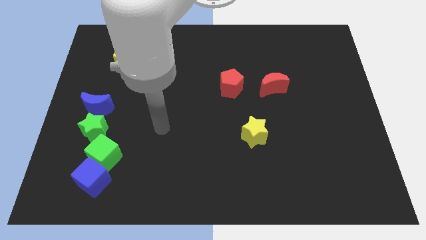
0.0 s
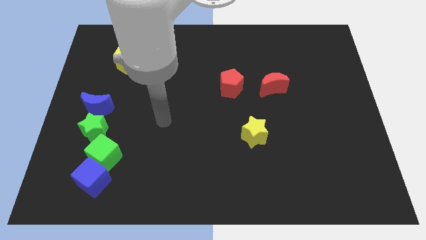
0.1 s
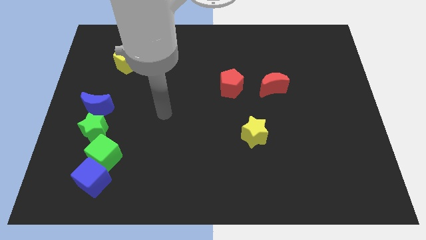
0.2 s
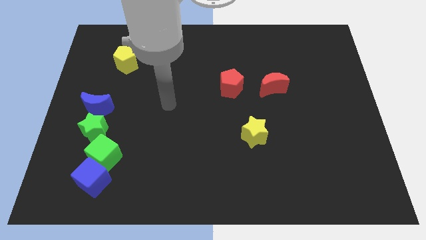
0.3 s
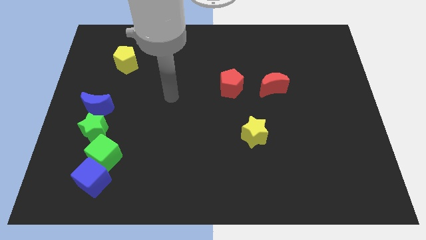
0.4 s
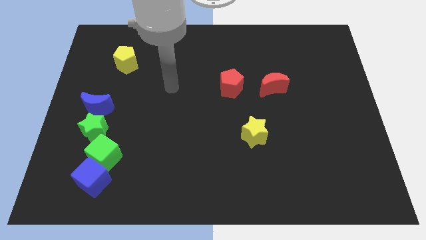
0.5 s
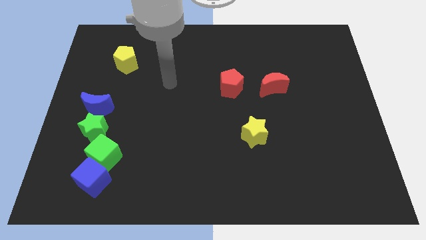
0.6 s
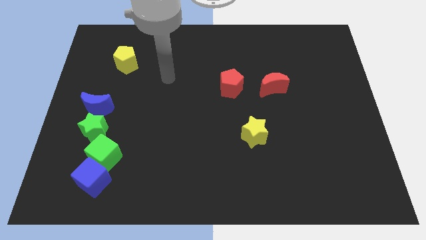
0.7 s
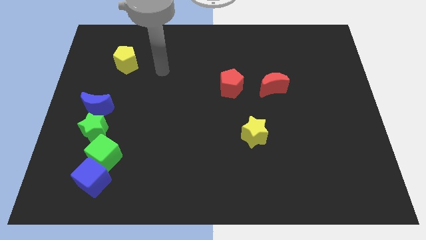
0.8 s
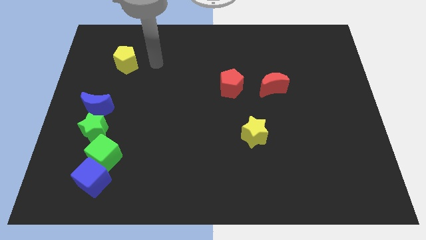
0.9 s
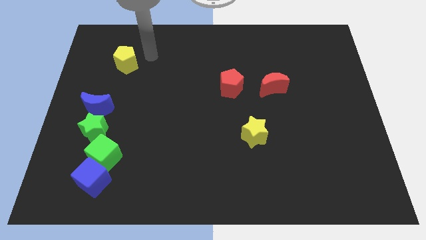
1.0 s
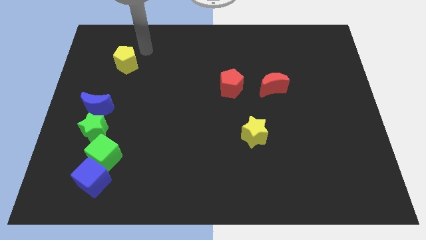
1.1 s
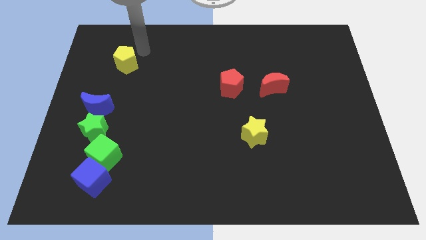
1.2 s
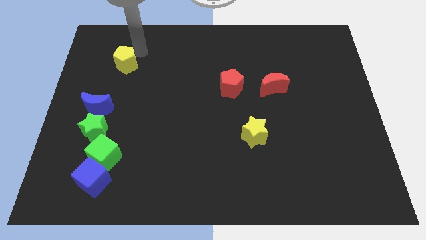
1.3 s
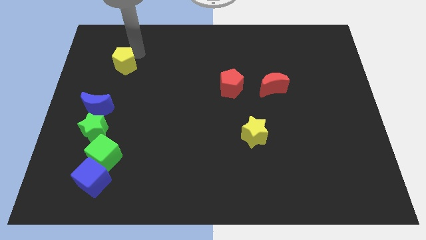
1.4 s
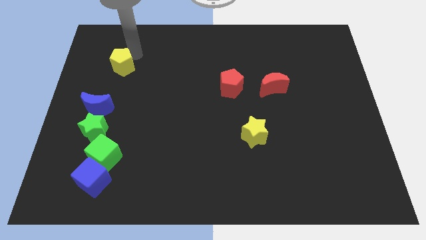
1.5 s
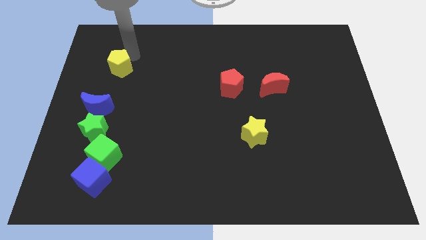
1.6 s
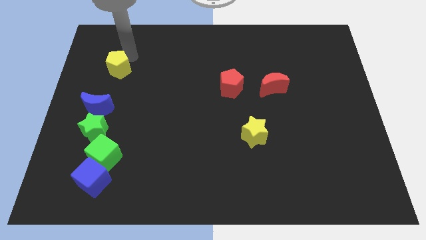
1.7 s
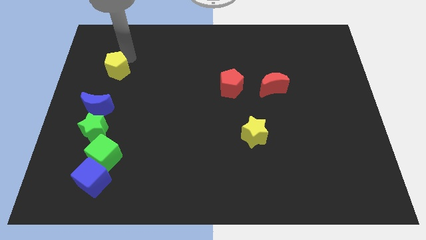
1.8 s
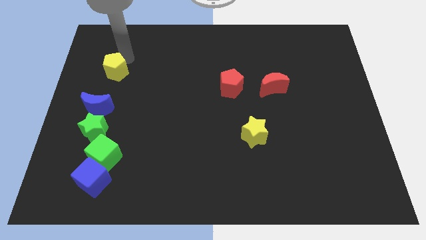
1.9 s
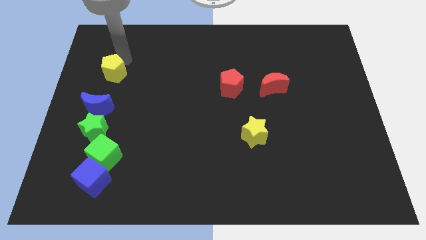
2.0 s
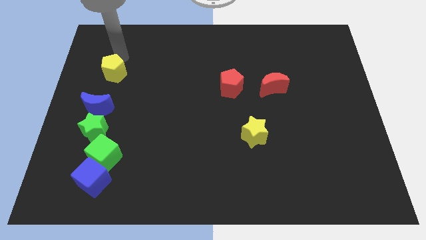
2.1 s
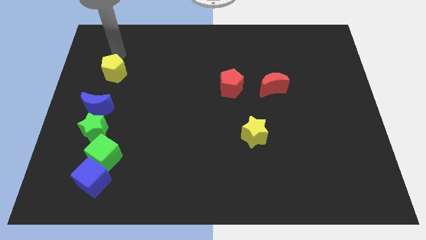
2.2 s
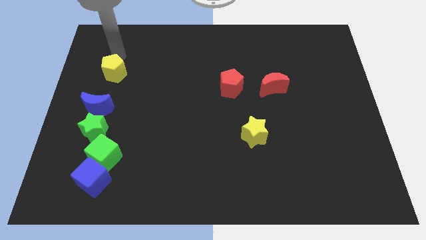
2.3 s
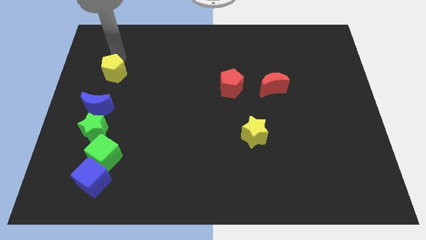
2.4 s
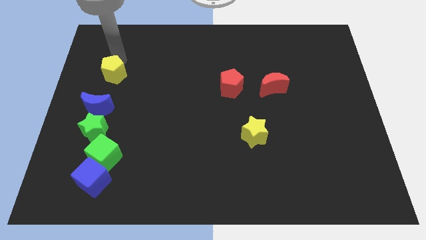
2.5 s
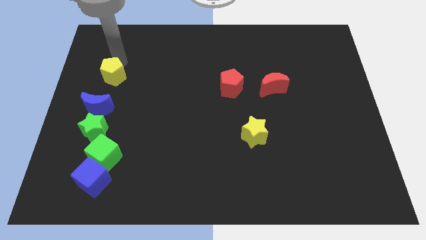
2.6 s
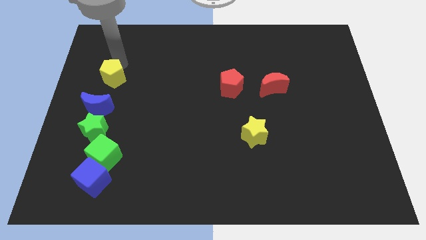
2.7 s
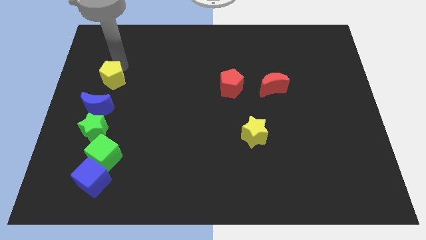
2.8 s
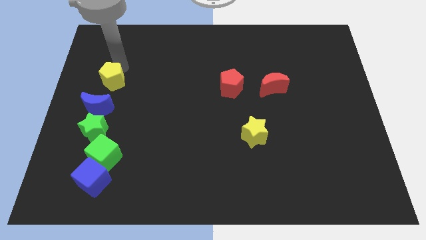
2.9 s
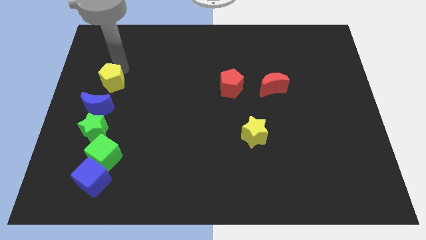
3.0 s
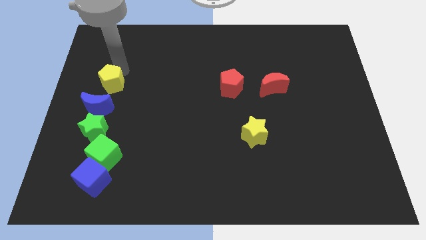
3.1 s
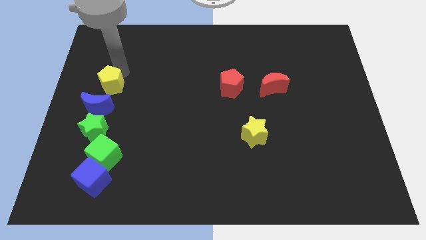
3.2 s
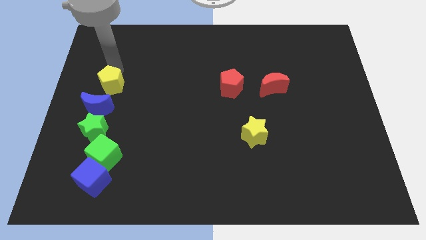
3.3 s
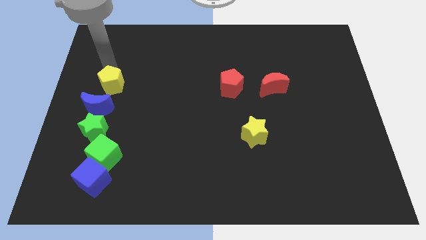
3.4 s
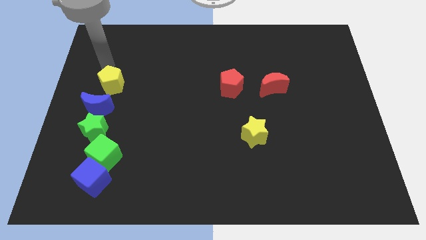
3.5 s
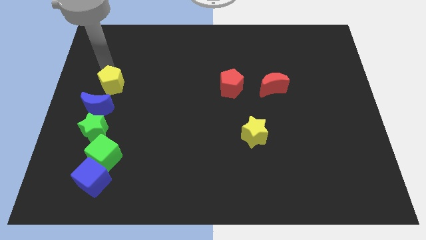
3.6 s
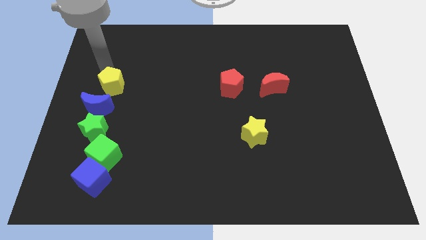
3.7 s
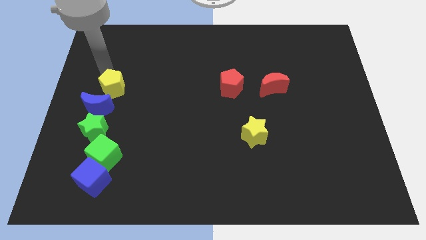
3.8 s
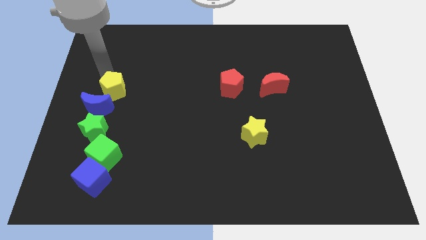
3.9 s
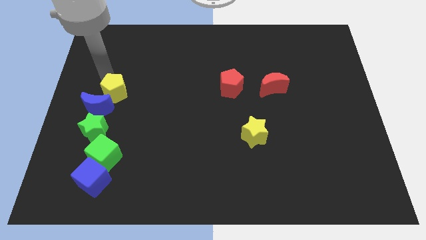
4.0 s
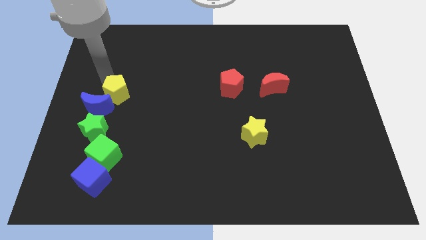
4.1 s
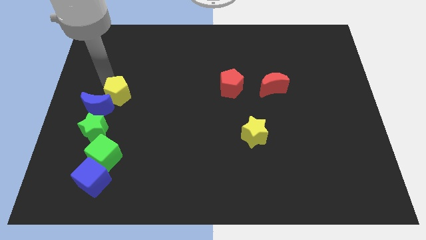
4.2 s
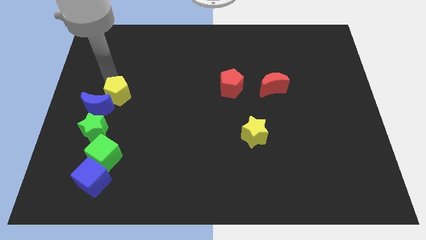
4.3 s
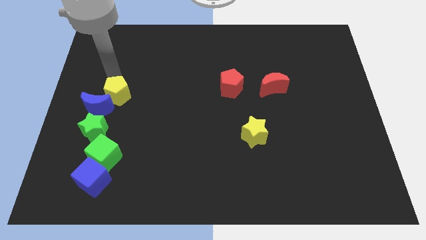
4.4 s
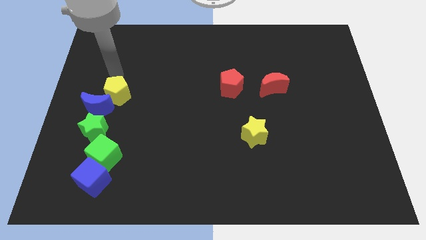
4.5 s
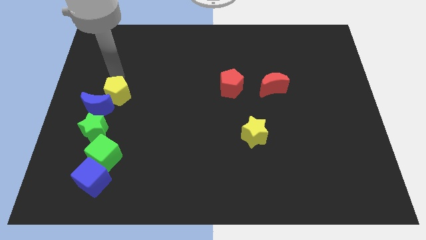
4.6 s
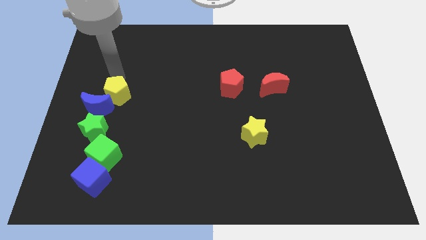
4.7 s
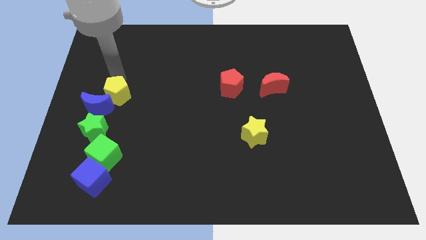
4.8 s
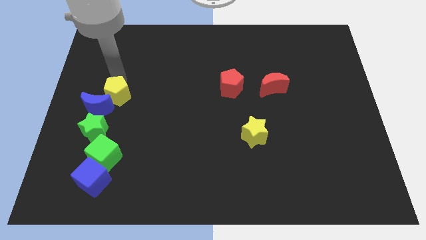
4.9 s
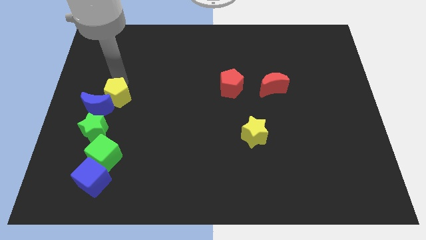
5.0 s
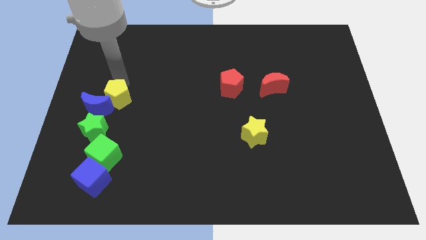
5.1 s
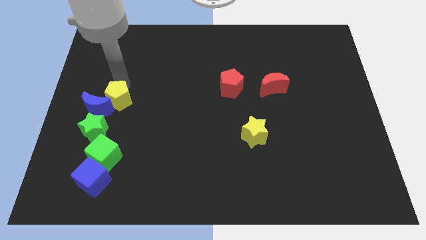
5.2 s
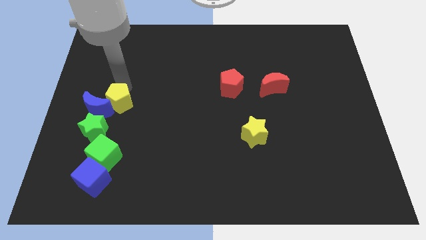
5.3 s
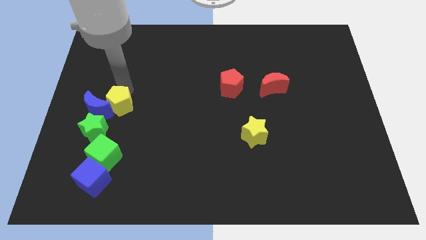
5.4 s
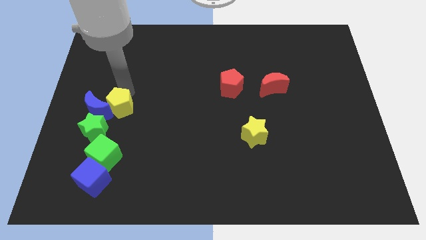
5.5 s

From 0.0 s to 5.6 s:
push the yellow pentagon to the bottom right side of the blue moon

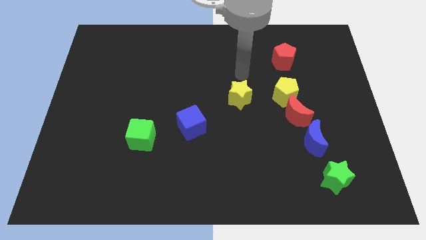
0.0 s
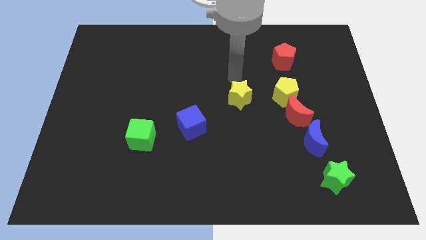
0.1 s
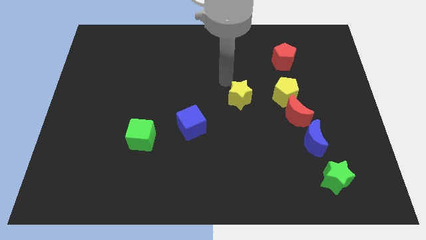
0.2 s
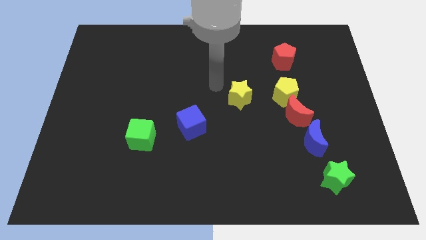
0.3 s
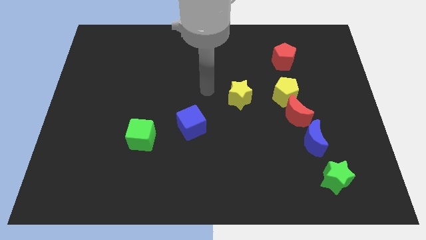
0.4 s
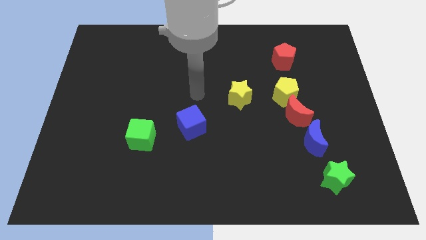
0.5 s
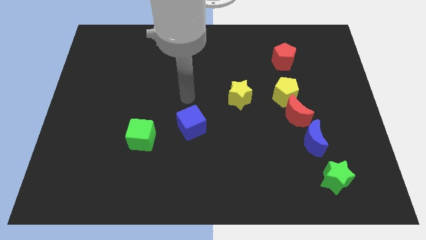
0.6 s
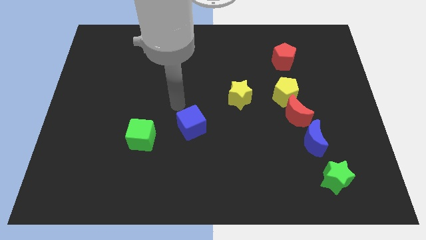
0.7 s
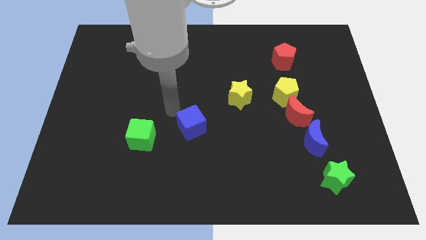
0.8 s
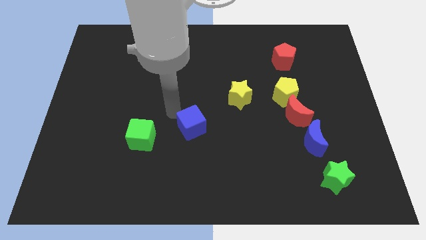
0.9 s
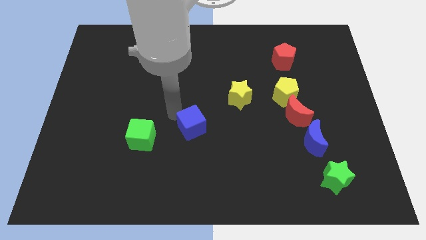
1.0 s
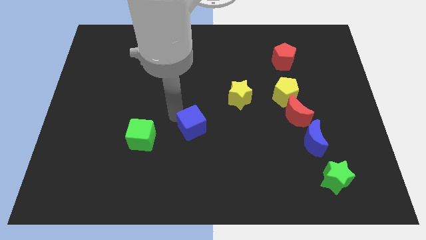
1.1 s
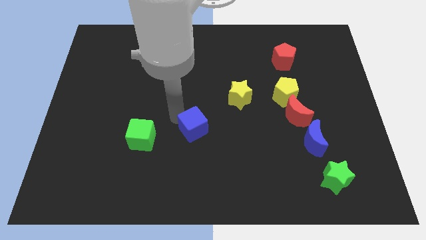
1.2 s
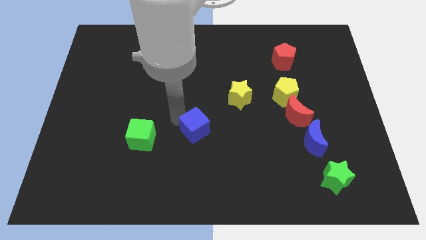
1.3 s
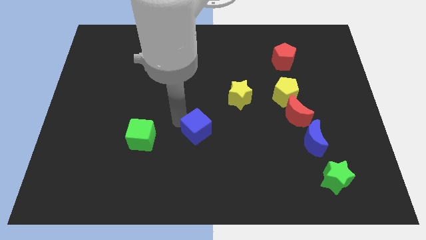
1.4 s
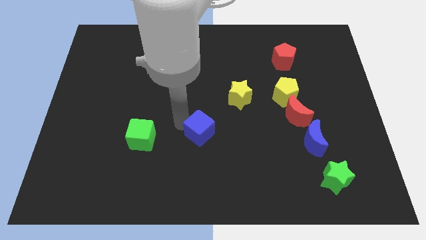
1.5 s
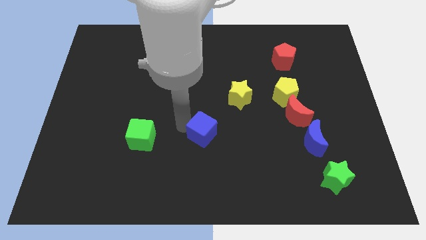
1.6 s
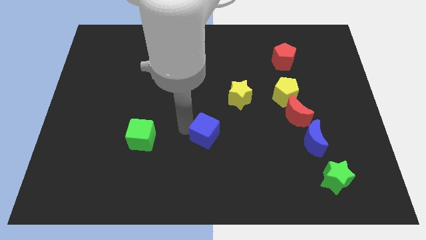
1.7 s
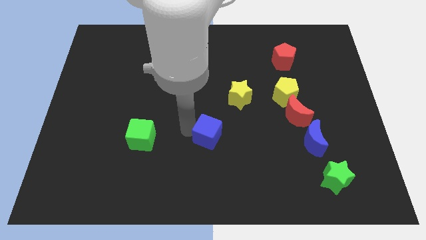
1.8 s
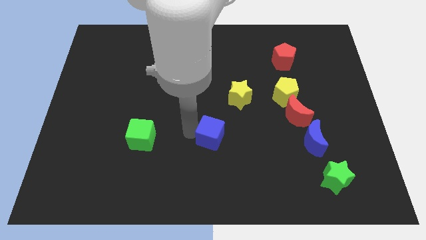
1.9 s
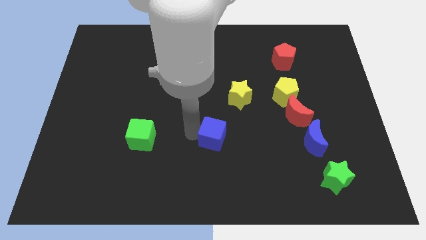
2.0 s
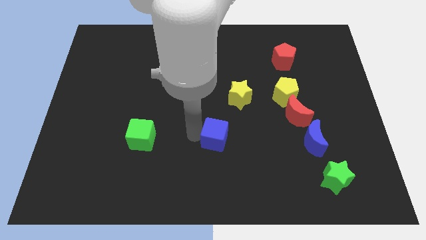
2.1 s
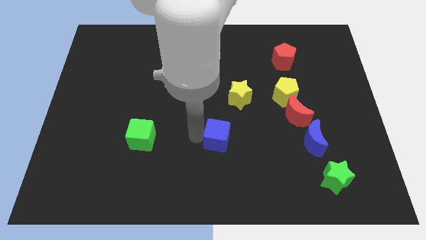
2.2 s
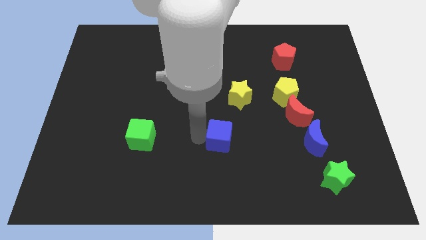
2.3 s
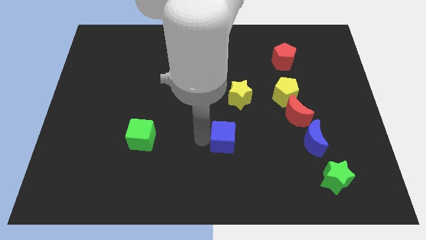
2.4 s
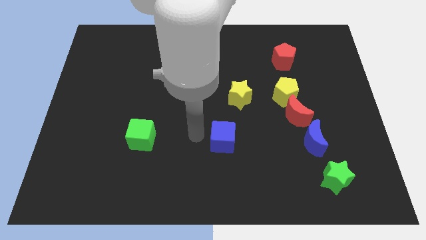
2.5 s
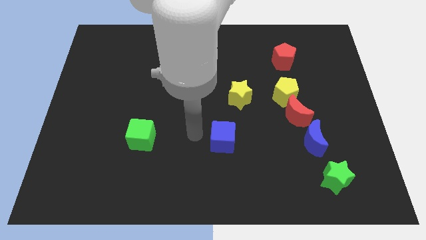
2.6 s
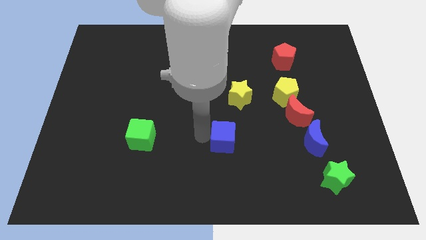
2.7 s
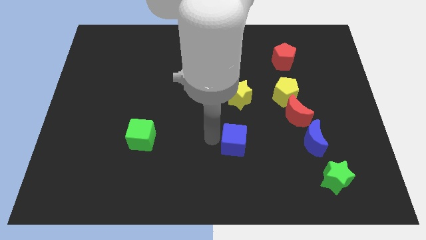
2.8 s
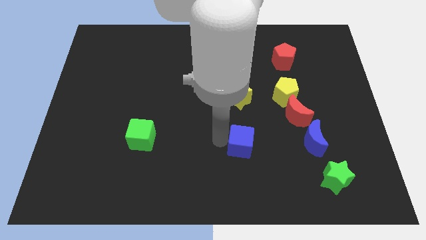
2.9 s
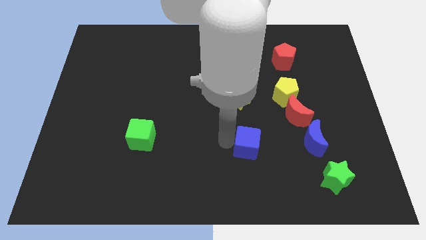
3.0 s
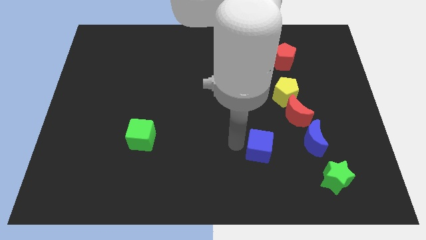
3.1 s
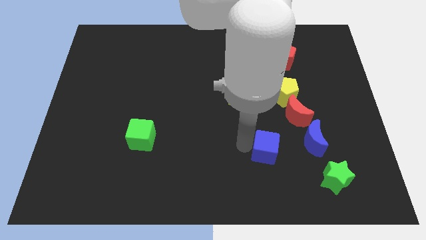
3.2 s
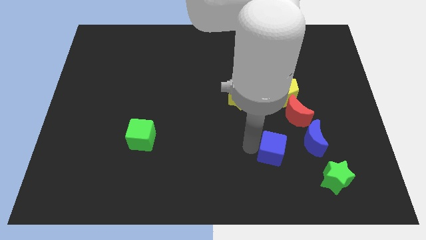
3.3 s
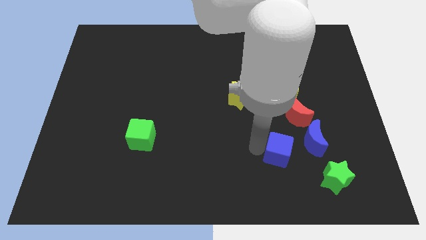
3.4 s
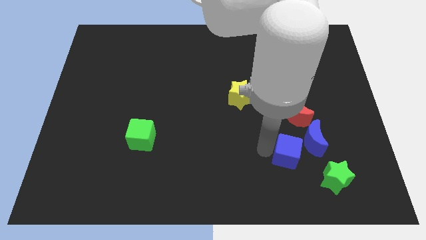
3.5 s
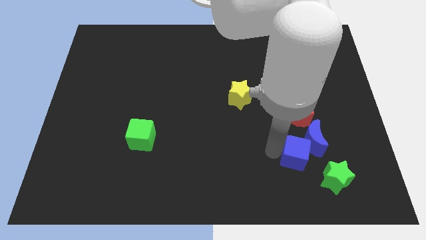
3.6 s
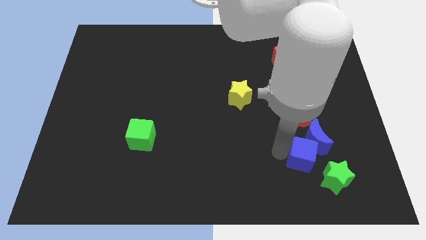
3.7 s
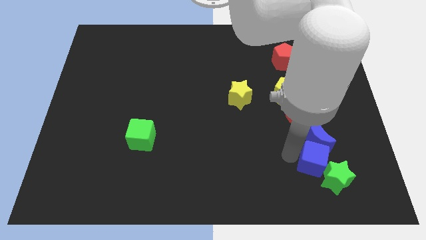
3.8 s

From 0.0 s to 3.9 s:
slide the blue cube to the bottom right side of the blue moon
